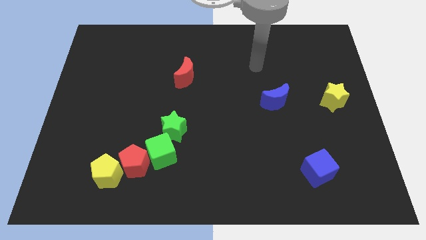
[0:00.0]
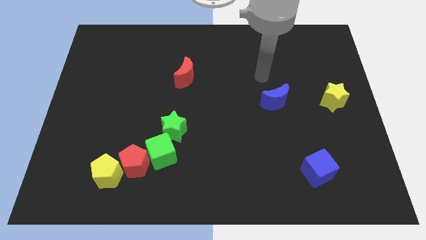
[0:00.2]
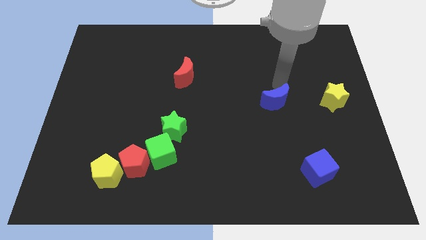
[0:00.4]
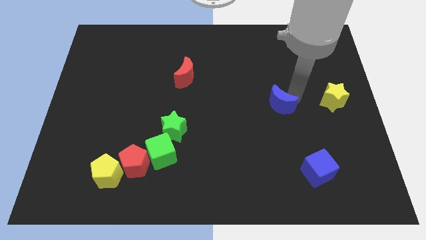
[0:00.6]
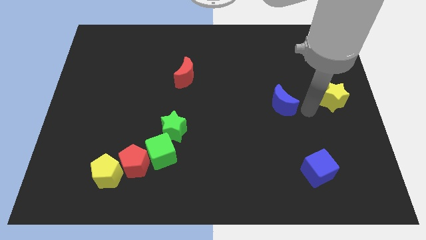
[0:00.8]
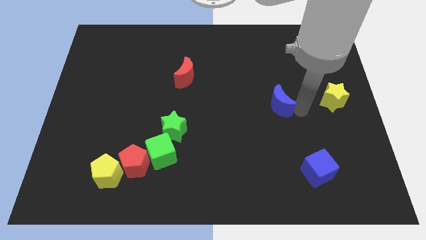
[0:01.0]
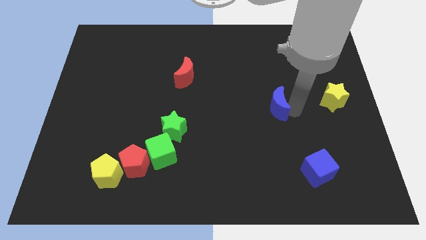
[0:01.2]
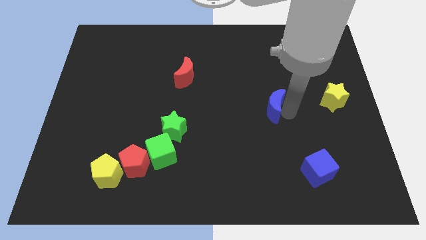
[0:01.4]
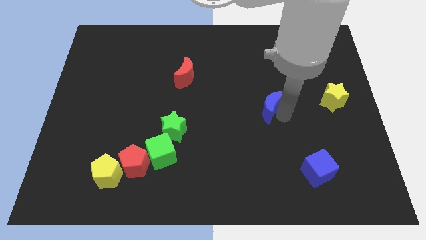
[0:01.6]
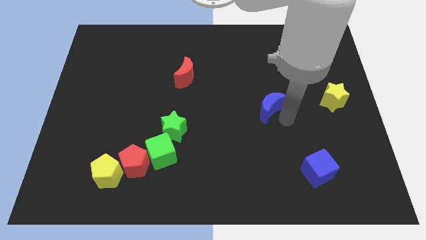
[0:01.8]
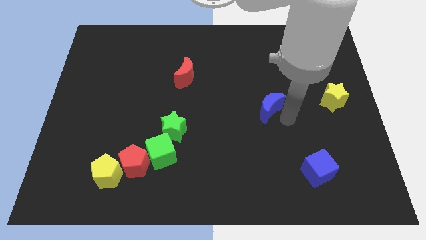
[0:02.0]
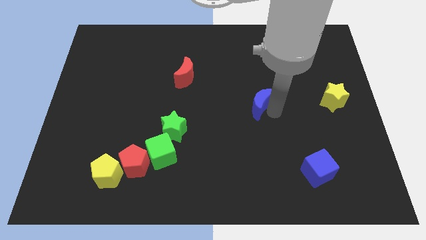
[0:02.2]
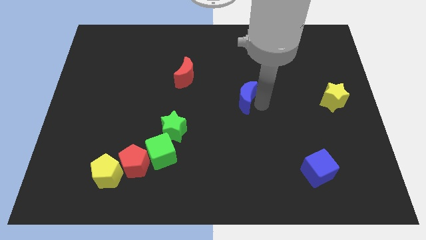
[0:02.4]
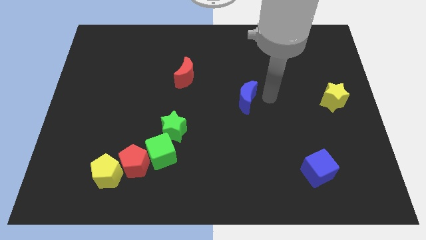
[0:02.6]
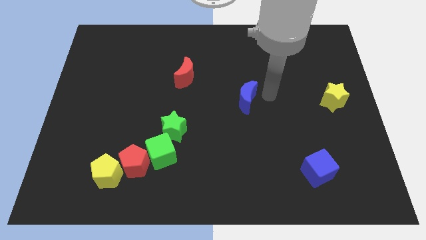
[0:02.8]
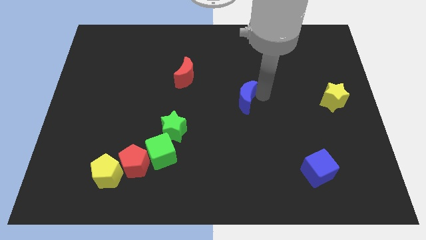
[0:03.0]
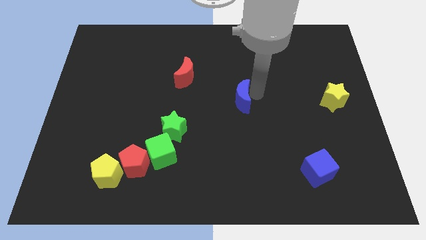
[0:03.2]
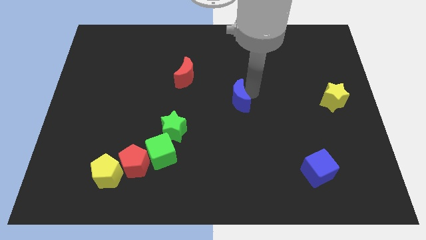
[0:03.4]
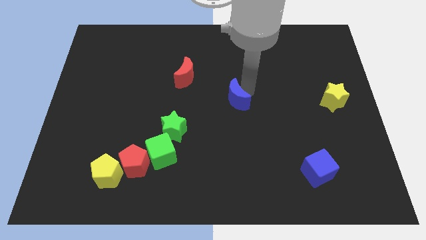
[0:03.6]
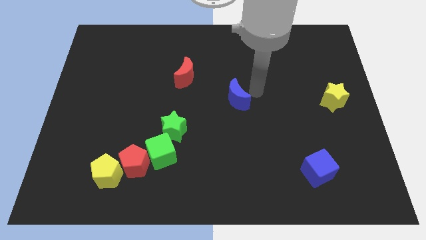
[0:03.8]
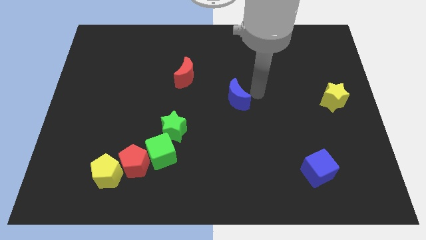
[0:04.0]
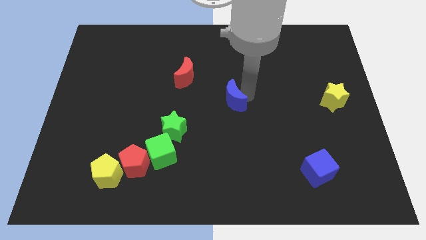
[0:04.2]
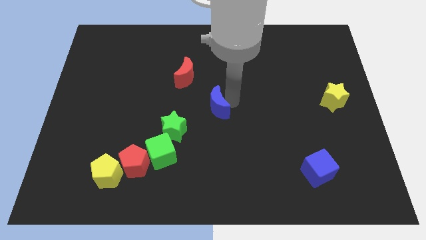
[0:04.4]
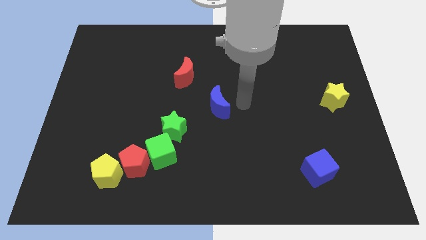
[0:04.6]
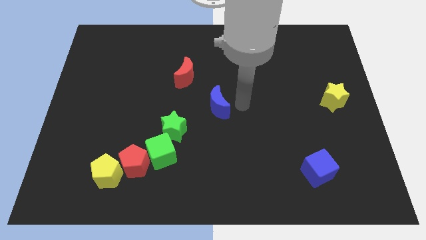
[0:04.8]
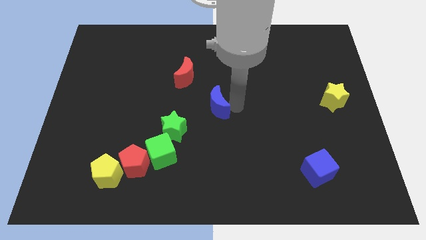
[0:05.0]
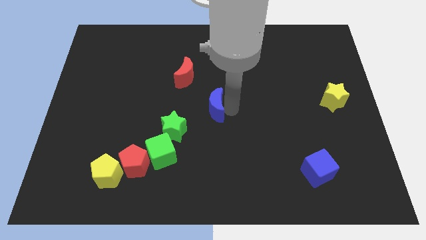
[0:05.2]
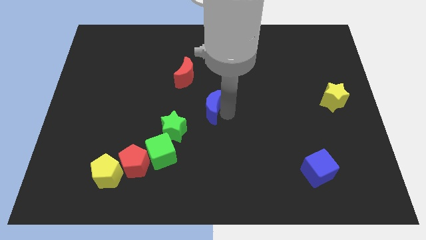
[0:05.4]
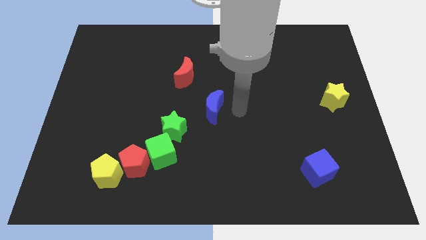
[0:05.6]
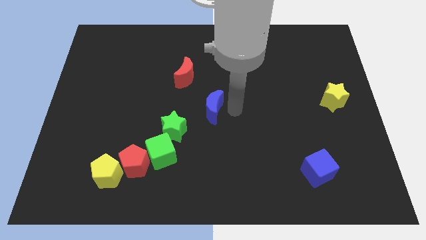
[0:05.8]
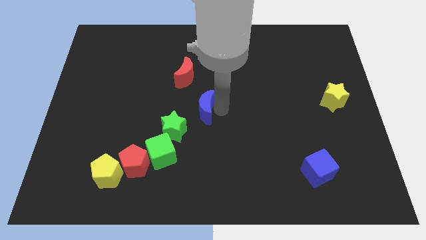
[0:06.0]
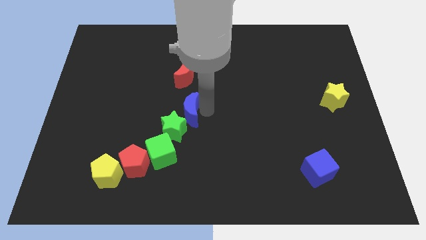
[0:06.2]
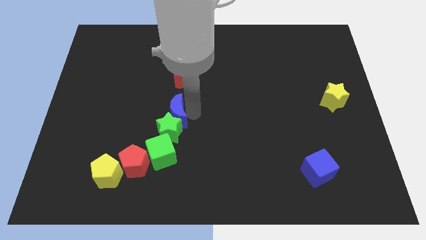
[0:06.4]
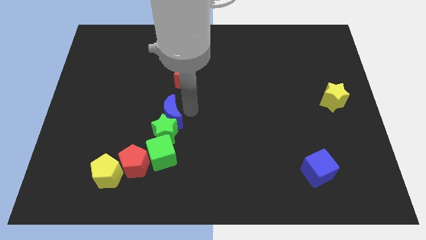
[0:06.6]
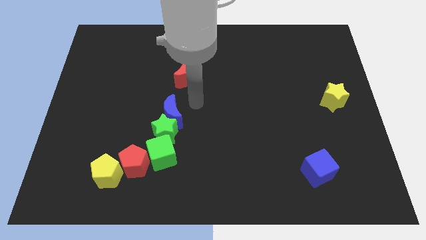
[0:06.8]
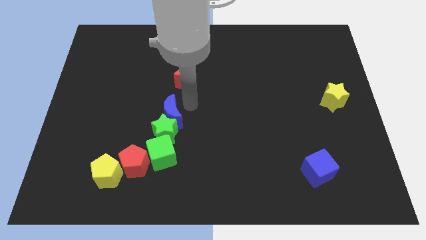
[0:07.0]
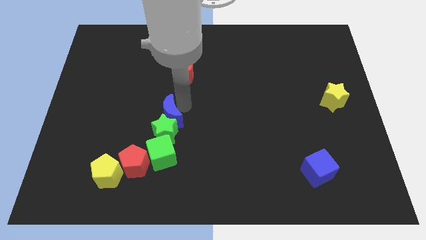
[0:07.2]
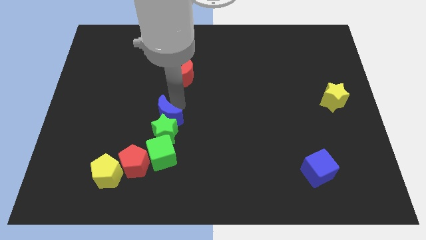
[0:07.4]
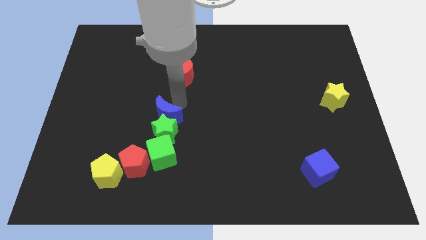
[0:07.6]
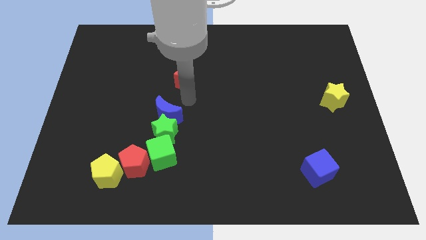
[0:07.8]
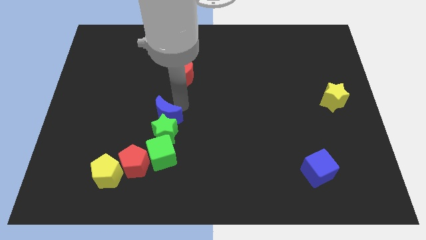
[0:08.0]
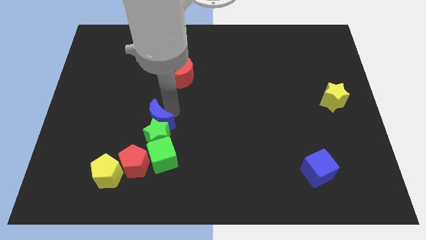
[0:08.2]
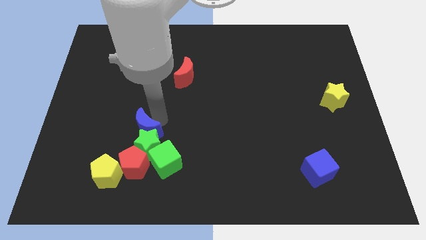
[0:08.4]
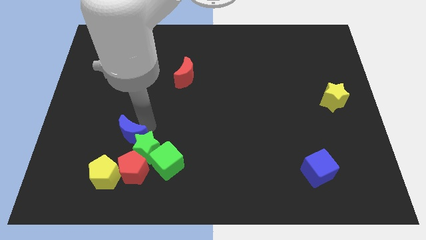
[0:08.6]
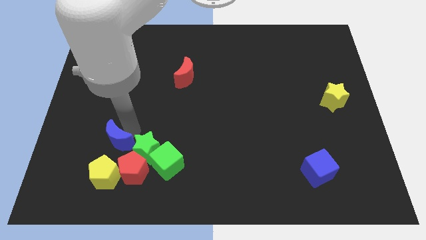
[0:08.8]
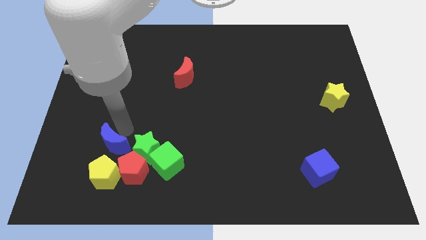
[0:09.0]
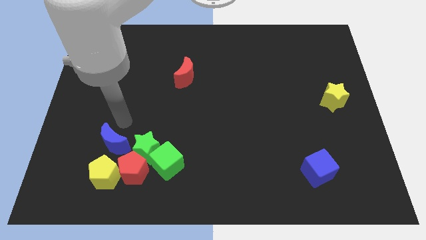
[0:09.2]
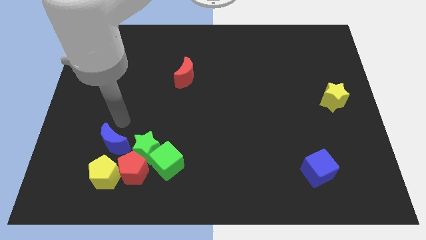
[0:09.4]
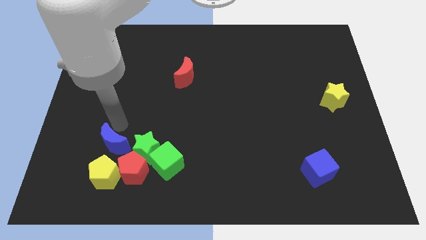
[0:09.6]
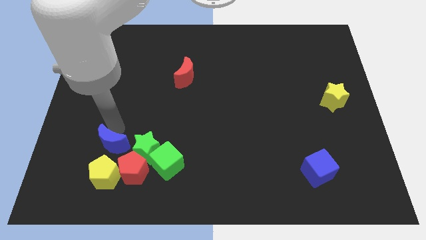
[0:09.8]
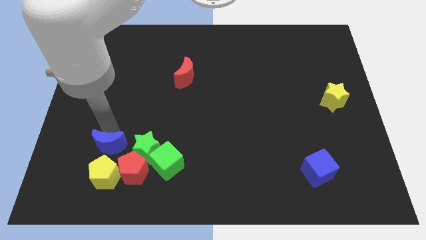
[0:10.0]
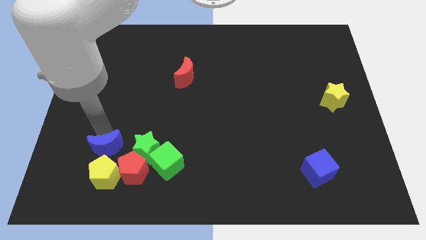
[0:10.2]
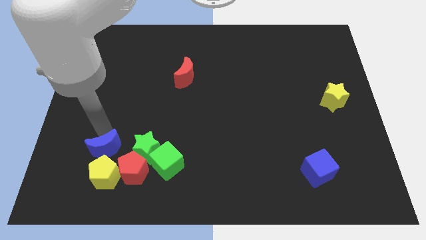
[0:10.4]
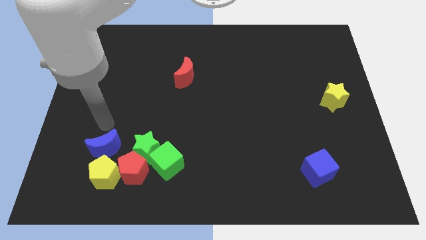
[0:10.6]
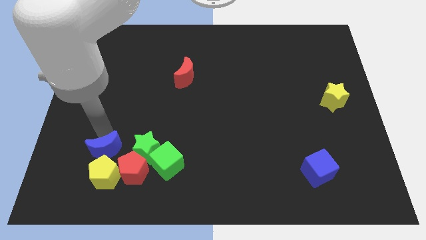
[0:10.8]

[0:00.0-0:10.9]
put the blue moon to the yellow pentagon
